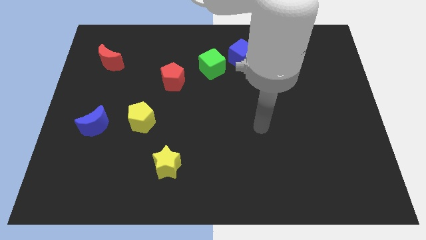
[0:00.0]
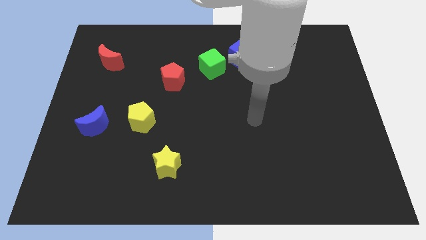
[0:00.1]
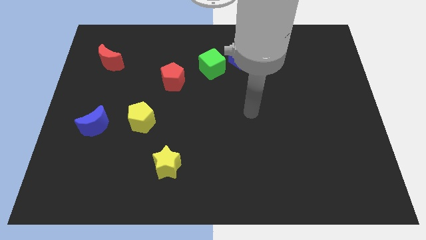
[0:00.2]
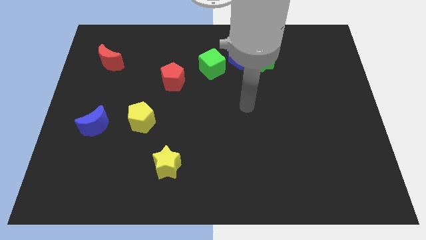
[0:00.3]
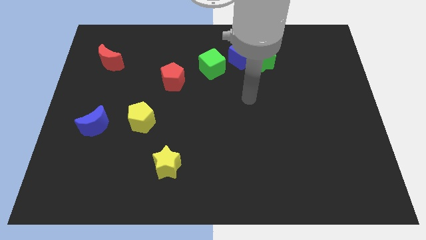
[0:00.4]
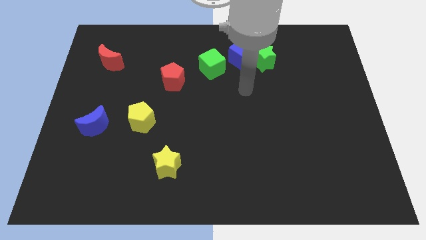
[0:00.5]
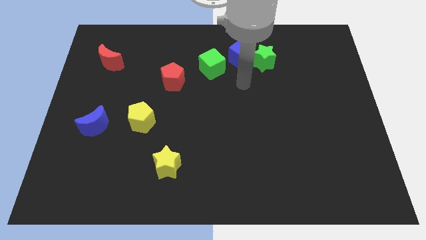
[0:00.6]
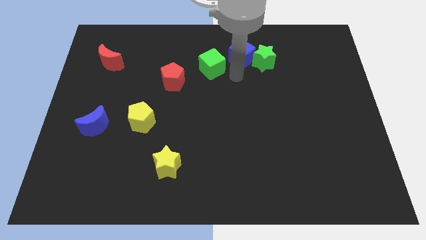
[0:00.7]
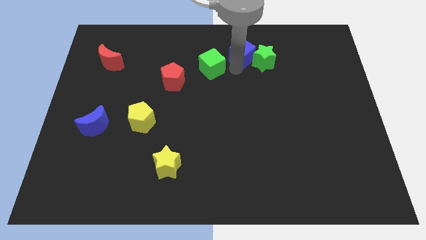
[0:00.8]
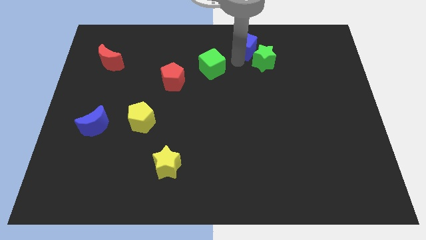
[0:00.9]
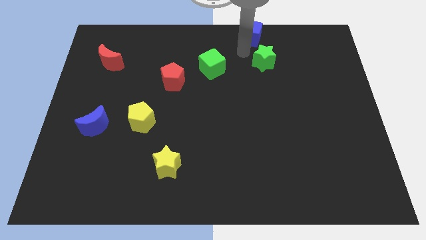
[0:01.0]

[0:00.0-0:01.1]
pull the green star apart from the blue cube

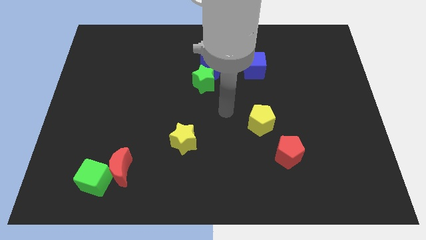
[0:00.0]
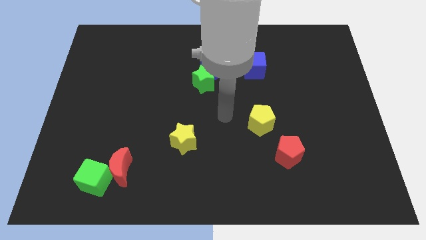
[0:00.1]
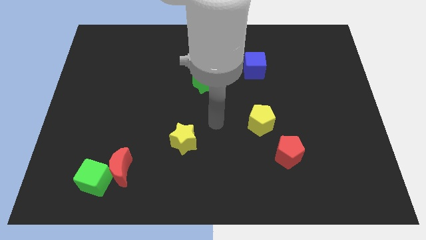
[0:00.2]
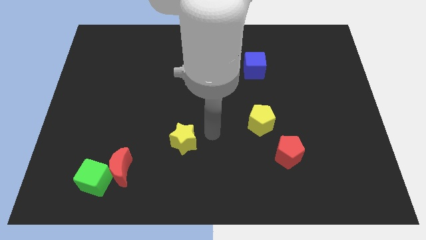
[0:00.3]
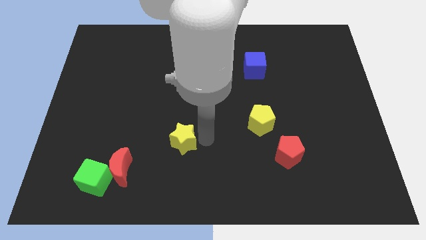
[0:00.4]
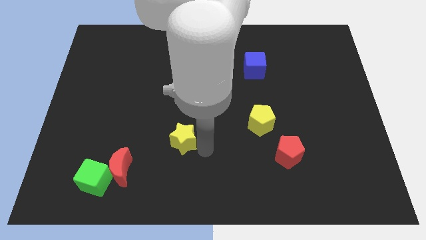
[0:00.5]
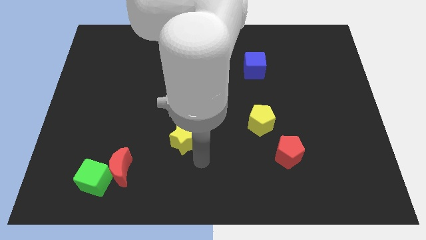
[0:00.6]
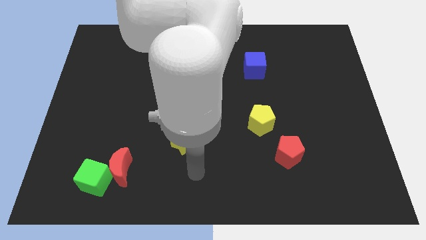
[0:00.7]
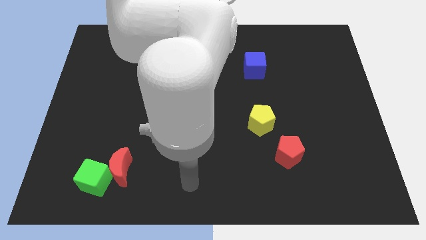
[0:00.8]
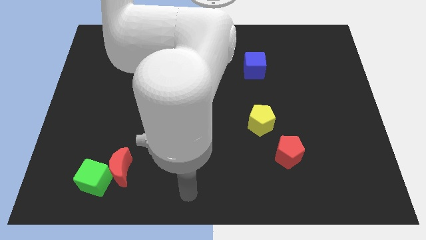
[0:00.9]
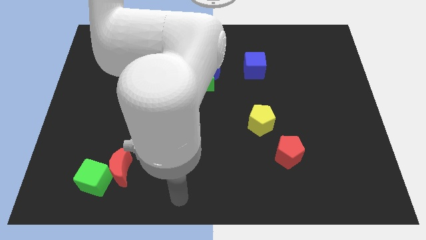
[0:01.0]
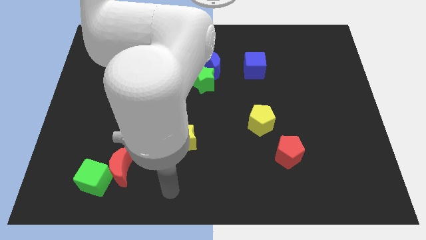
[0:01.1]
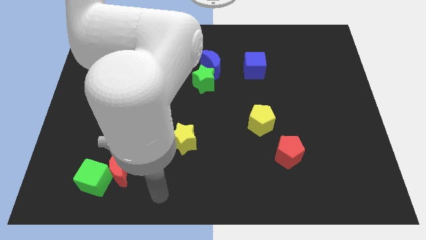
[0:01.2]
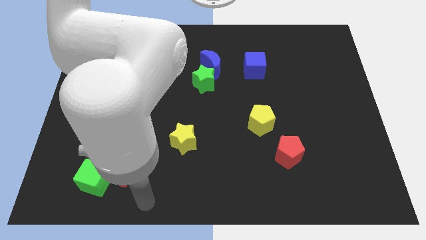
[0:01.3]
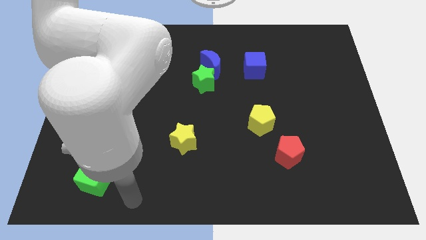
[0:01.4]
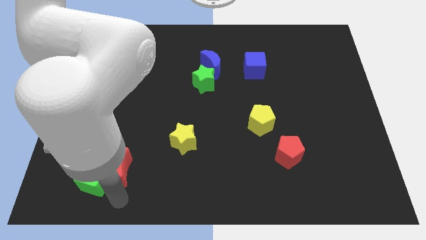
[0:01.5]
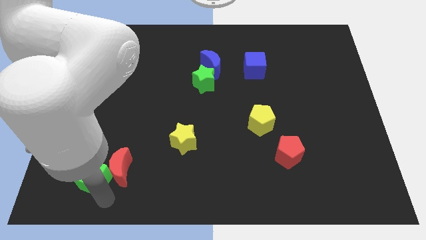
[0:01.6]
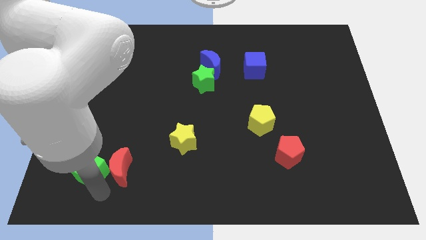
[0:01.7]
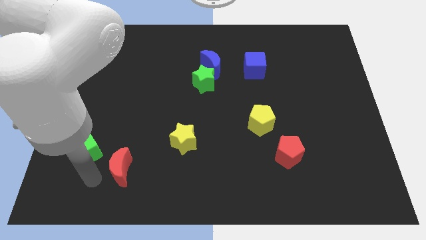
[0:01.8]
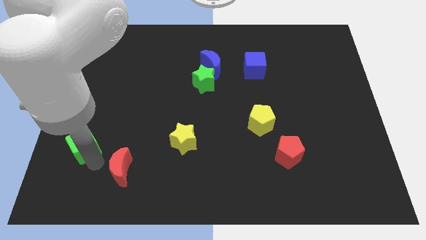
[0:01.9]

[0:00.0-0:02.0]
move the red moon away from the green cube

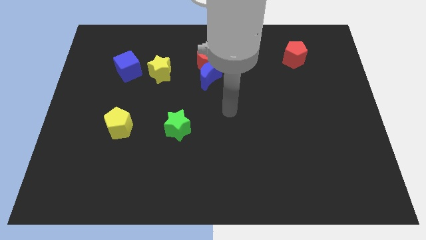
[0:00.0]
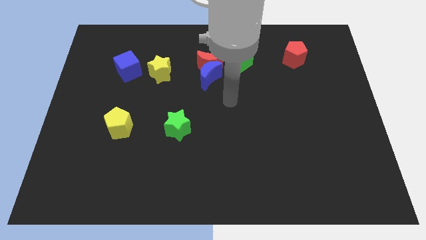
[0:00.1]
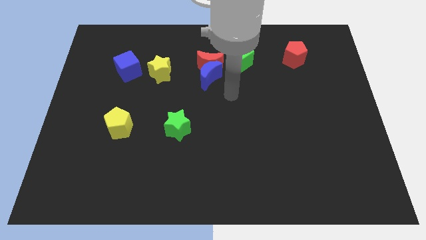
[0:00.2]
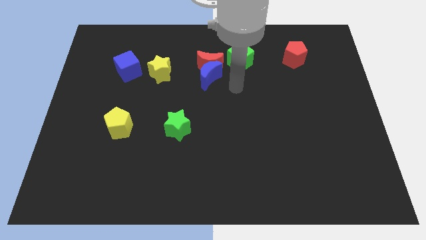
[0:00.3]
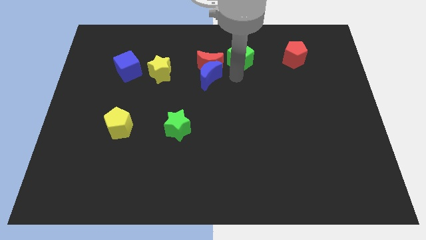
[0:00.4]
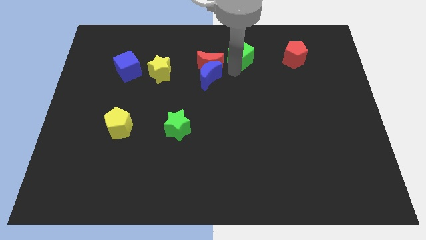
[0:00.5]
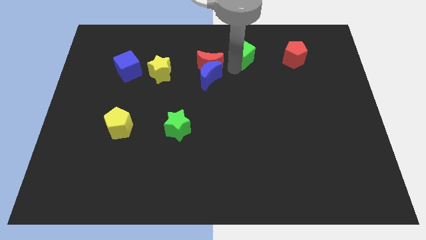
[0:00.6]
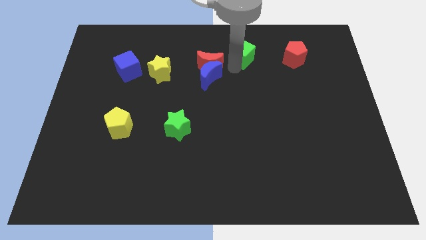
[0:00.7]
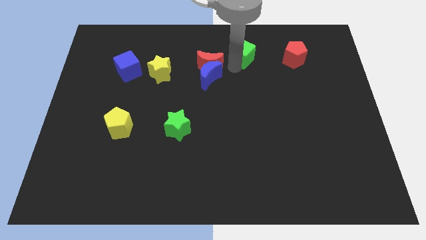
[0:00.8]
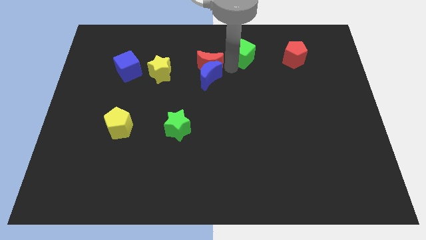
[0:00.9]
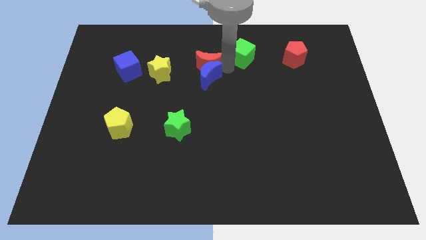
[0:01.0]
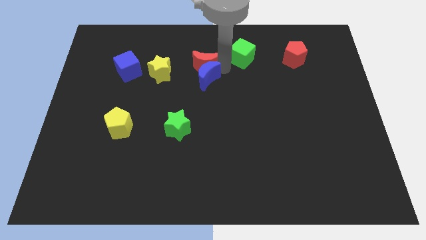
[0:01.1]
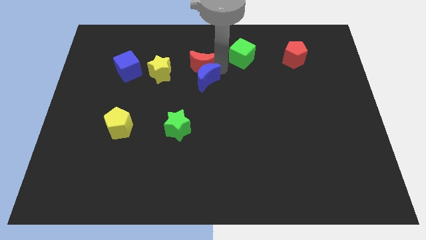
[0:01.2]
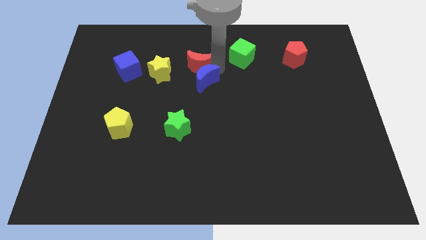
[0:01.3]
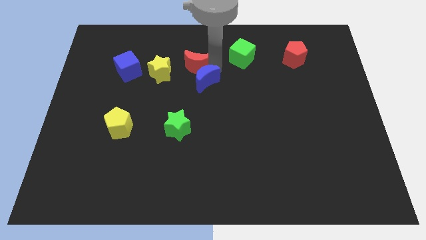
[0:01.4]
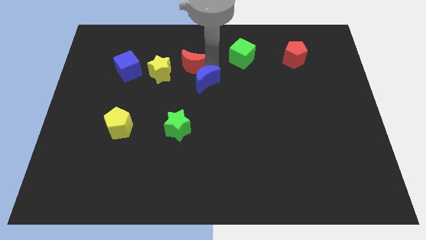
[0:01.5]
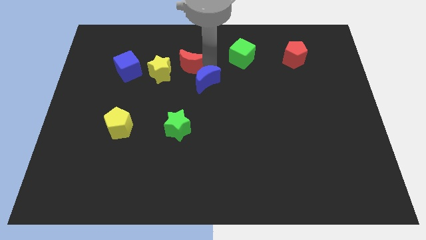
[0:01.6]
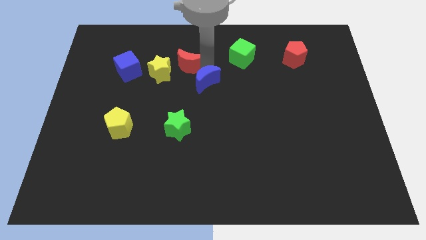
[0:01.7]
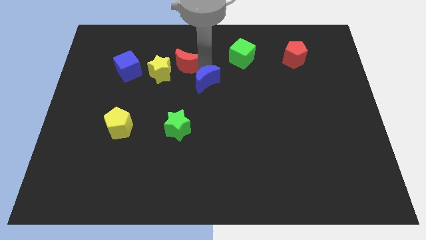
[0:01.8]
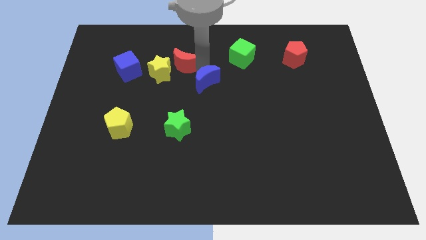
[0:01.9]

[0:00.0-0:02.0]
separate the red moon from the blue moon and green cube

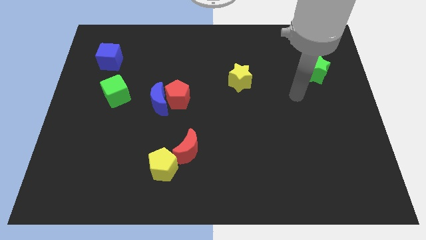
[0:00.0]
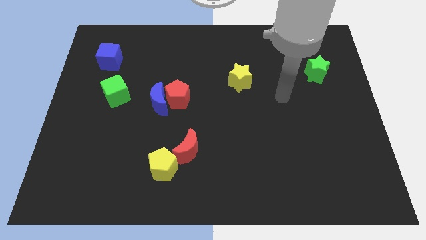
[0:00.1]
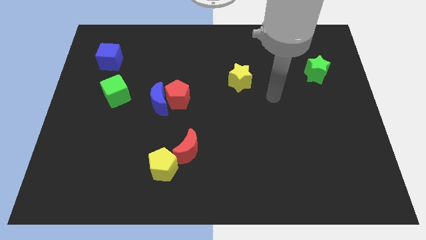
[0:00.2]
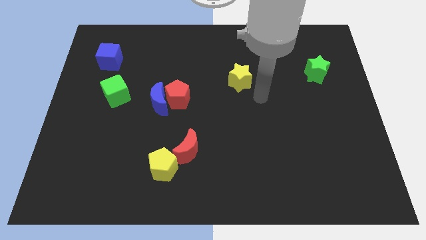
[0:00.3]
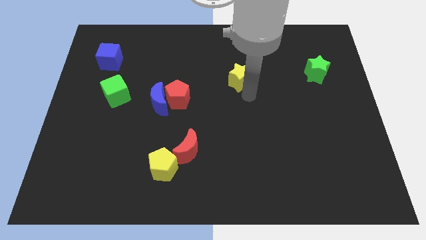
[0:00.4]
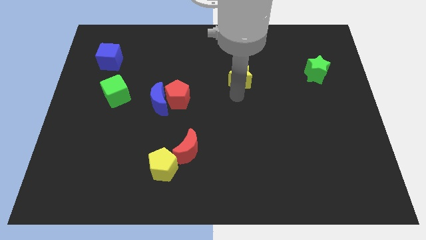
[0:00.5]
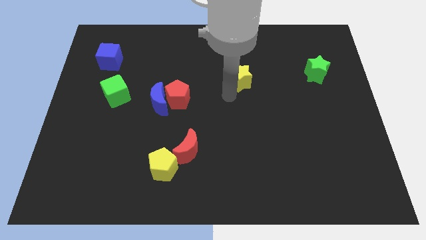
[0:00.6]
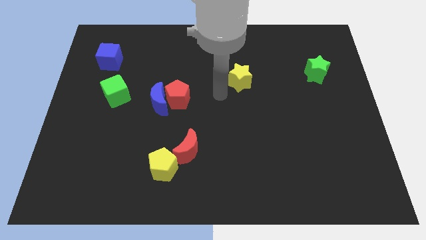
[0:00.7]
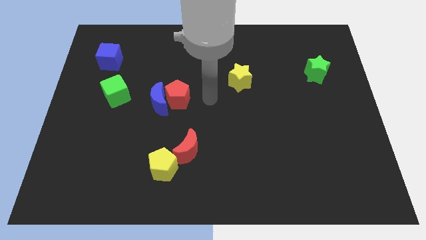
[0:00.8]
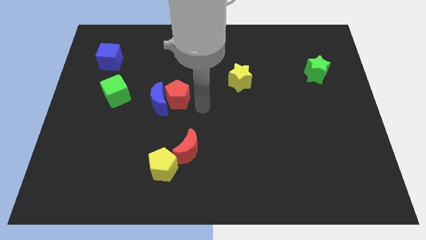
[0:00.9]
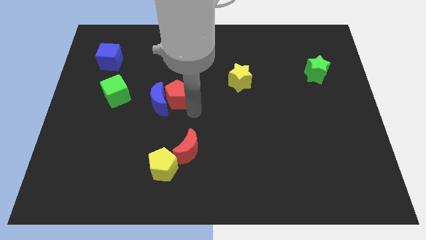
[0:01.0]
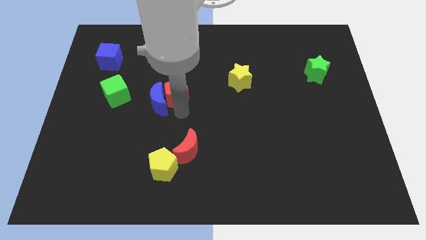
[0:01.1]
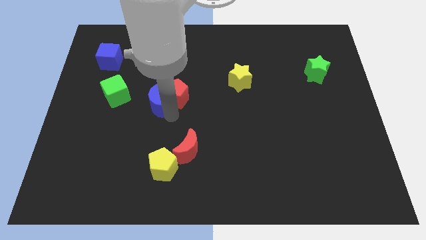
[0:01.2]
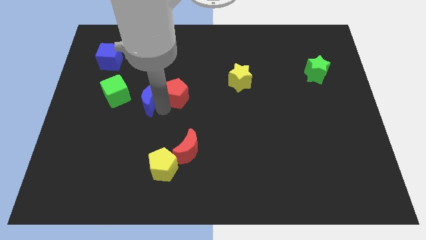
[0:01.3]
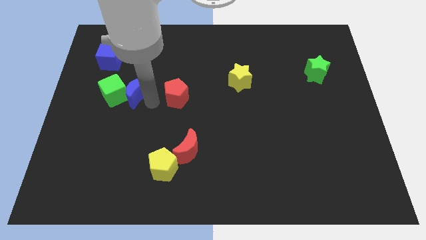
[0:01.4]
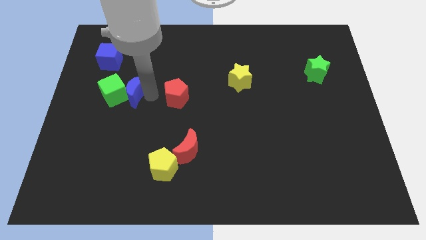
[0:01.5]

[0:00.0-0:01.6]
pull the red pentagon apart from the blue moon

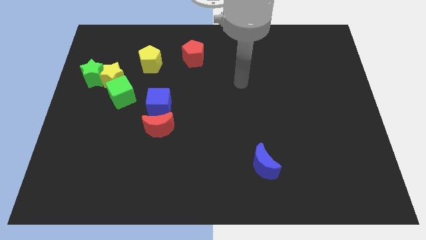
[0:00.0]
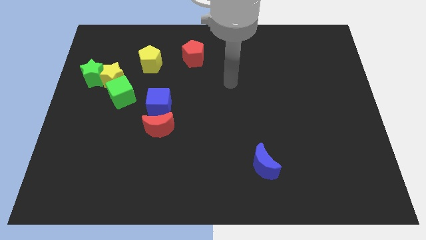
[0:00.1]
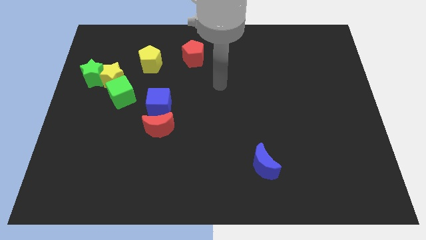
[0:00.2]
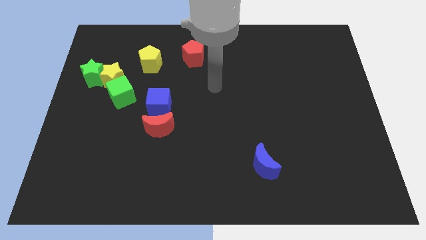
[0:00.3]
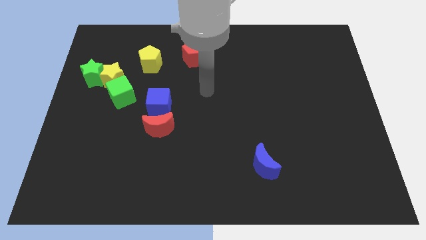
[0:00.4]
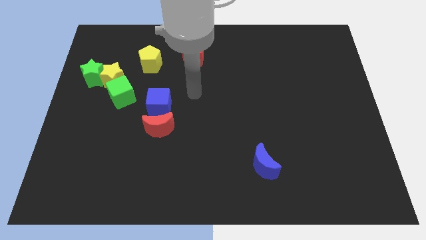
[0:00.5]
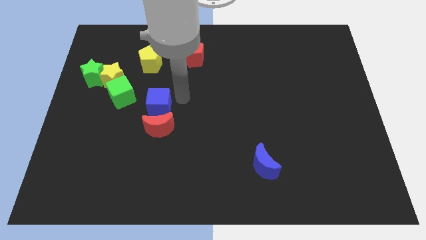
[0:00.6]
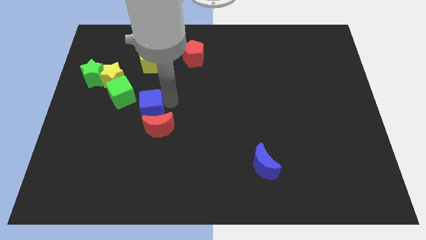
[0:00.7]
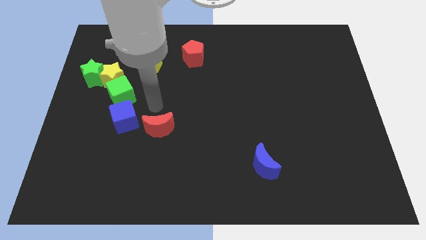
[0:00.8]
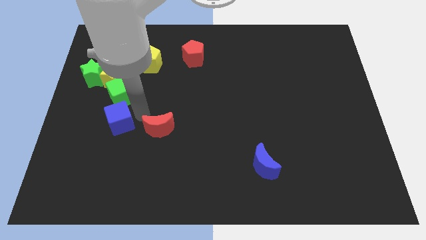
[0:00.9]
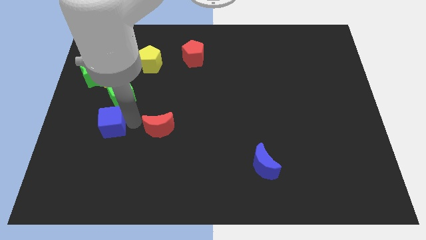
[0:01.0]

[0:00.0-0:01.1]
pull the red moon apart from the blue cube

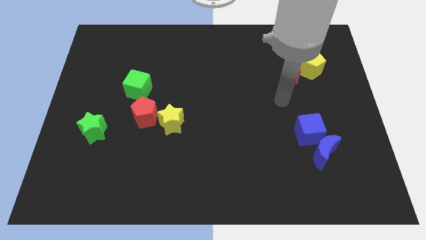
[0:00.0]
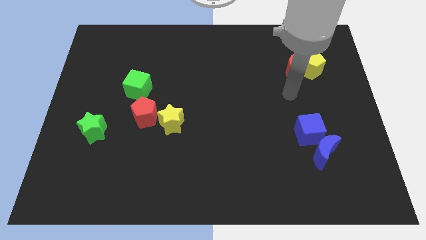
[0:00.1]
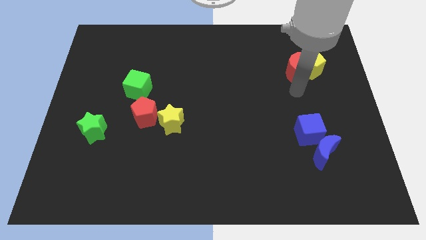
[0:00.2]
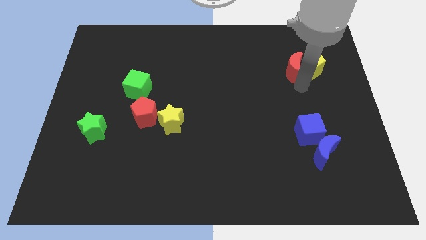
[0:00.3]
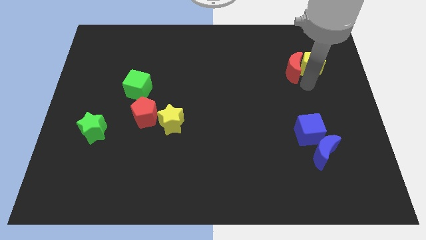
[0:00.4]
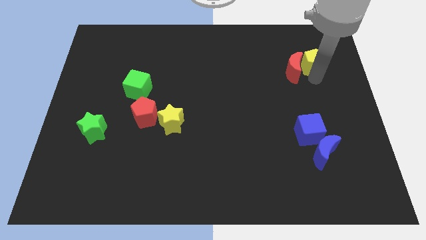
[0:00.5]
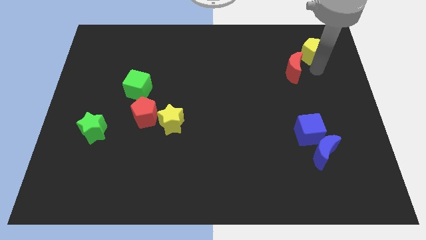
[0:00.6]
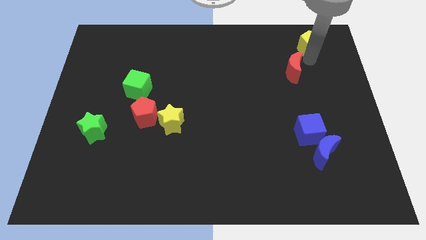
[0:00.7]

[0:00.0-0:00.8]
pull the red moon apart from the yellow pentagon

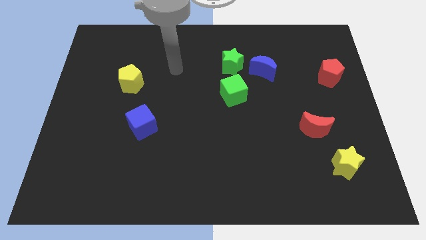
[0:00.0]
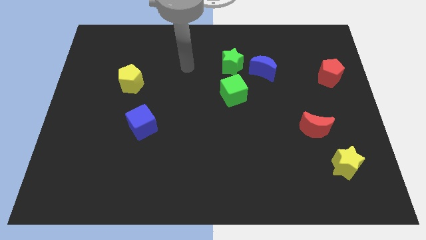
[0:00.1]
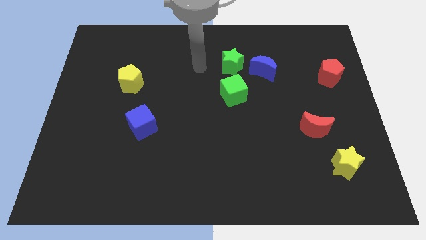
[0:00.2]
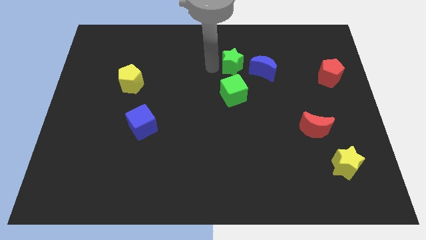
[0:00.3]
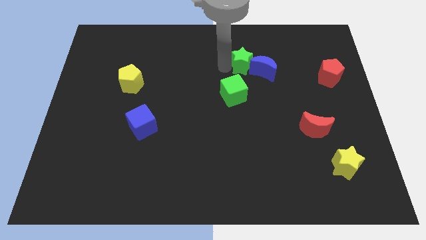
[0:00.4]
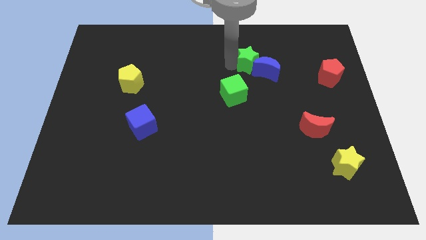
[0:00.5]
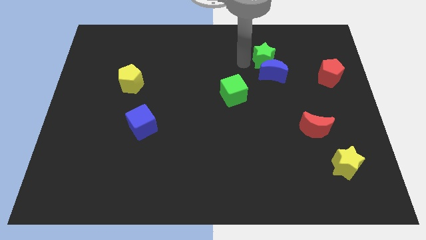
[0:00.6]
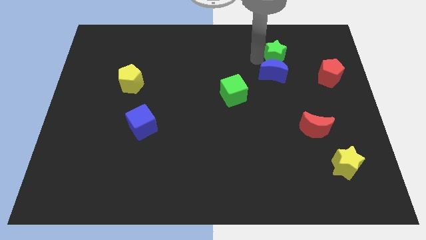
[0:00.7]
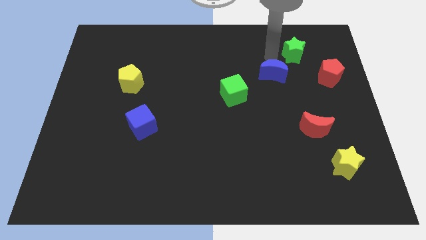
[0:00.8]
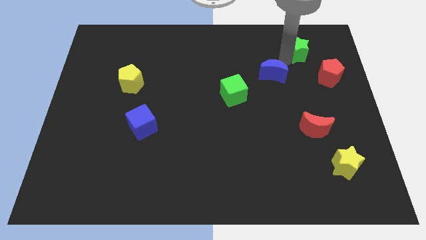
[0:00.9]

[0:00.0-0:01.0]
separate the blue moon from the green star
